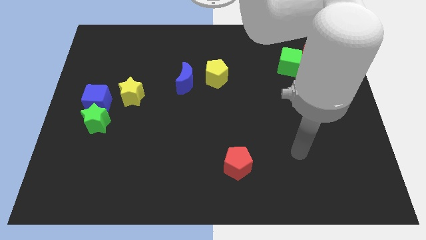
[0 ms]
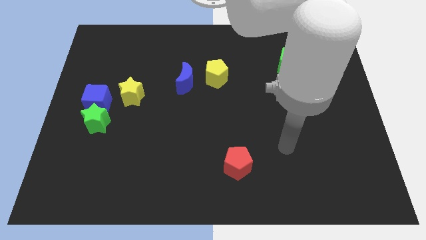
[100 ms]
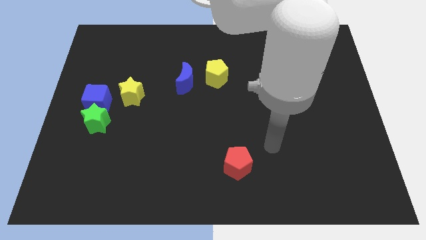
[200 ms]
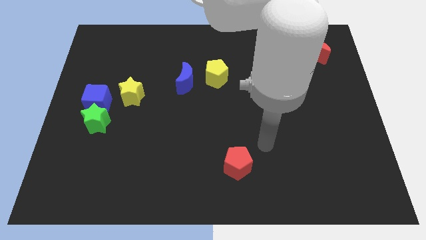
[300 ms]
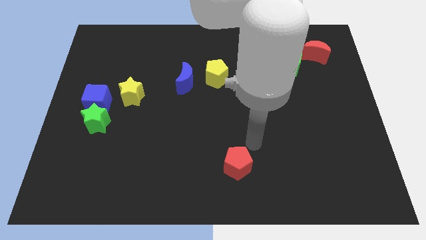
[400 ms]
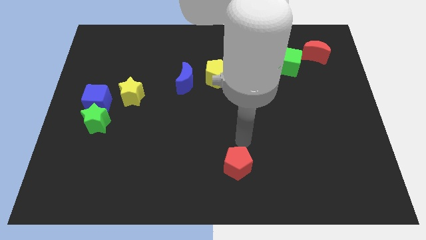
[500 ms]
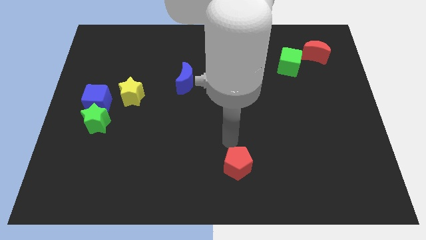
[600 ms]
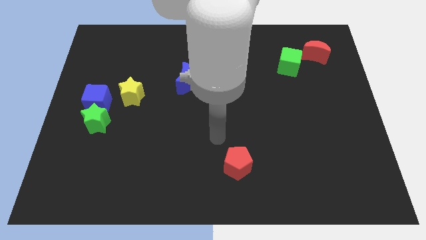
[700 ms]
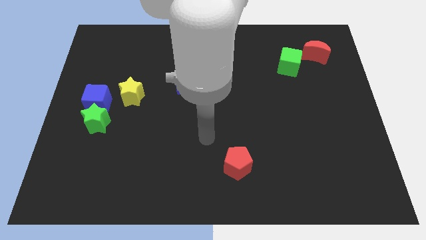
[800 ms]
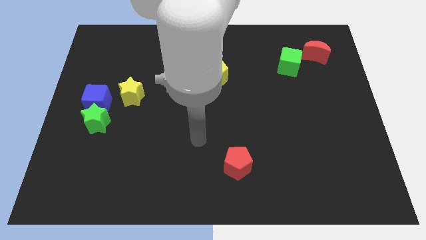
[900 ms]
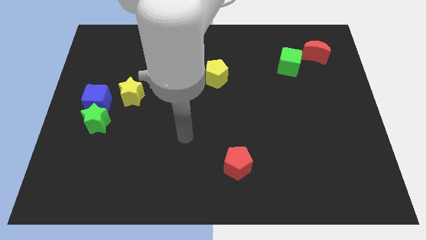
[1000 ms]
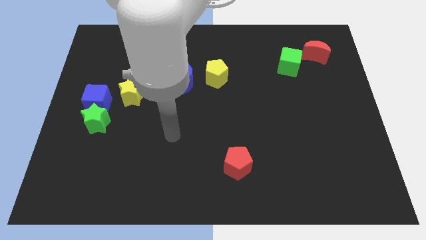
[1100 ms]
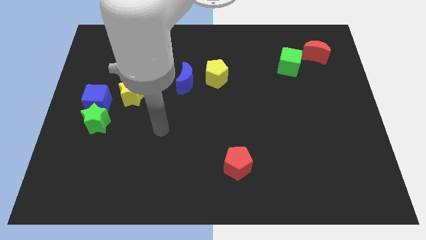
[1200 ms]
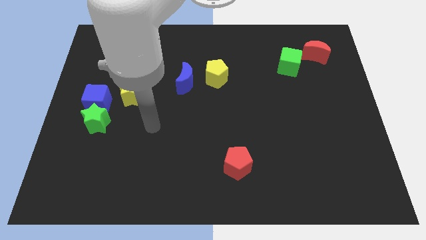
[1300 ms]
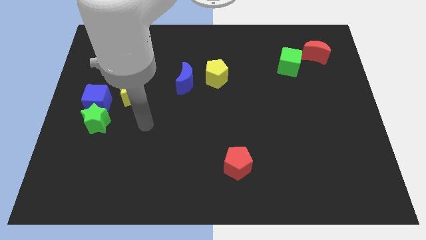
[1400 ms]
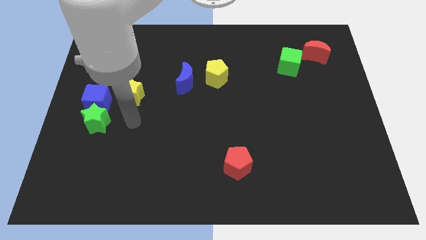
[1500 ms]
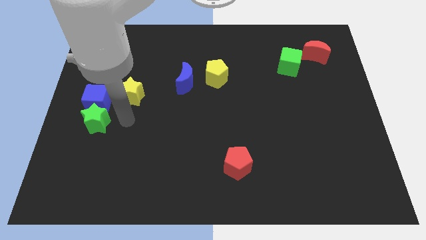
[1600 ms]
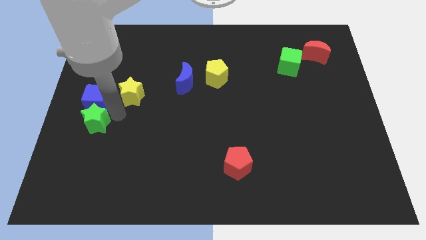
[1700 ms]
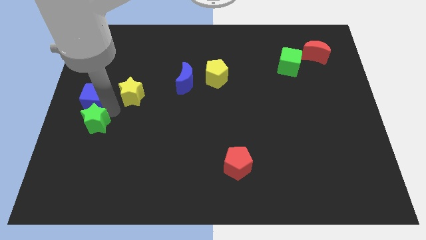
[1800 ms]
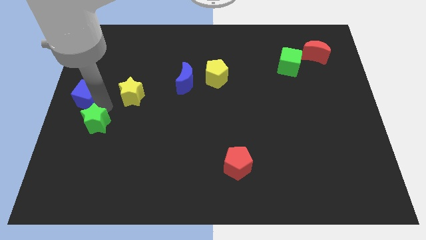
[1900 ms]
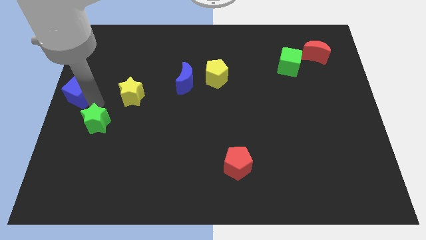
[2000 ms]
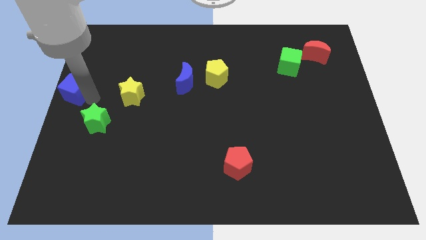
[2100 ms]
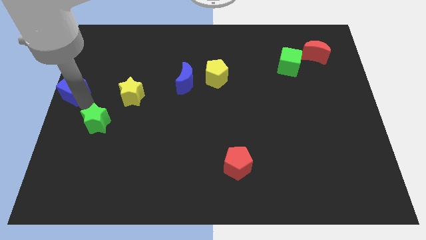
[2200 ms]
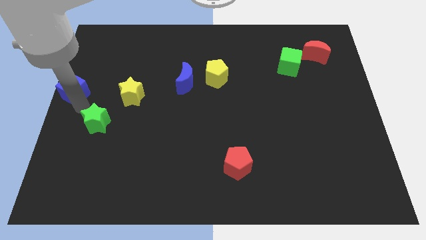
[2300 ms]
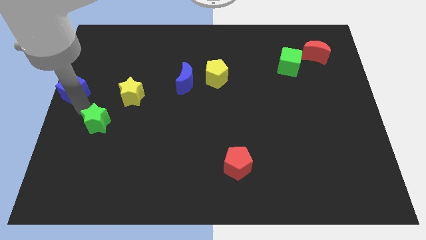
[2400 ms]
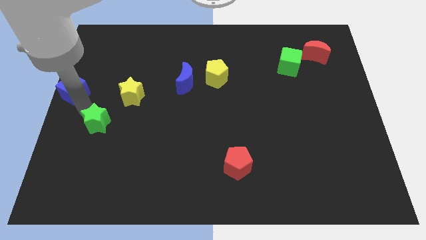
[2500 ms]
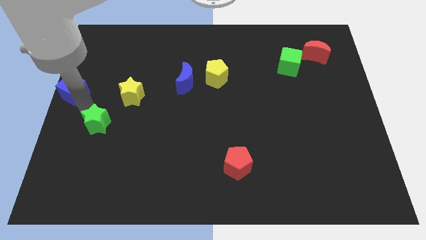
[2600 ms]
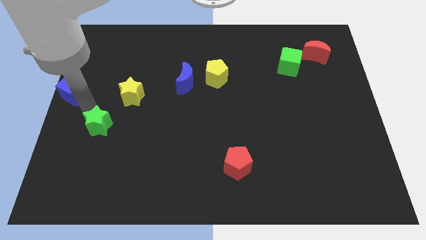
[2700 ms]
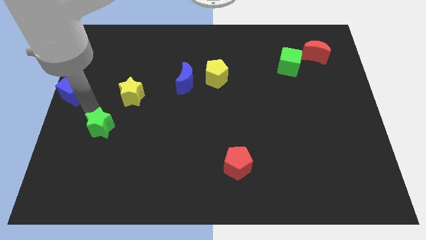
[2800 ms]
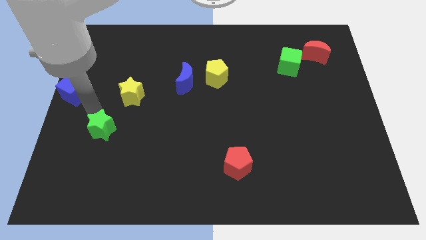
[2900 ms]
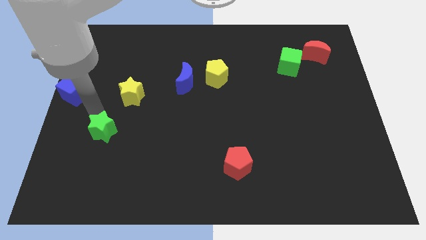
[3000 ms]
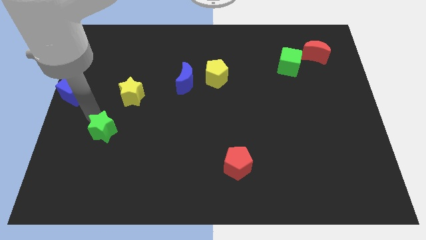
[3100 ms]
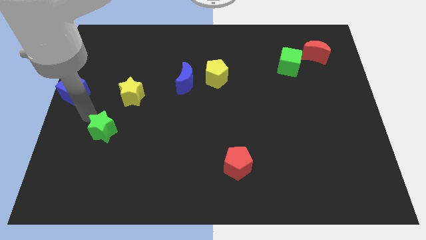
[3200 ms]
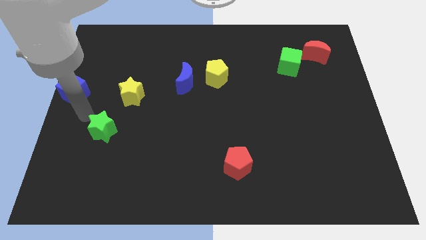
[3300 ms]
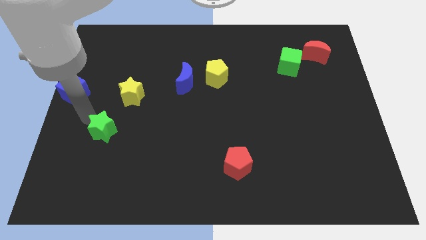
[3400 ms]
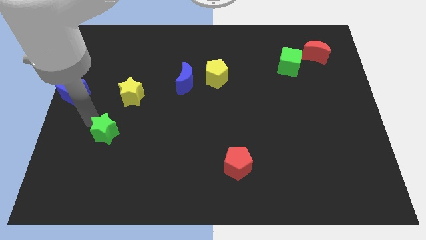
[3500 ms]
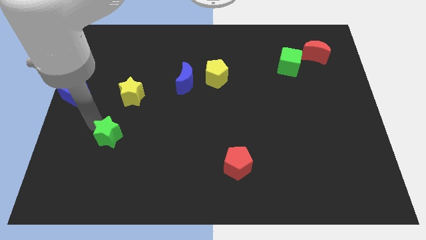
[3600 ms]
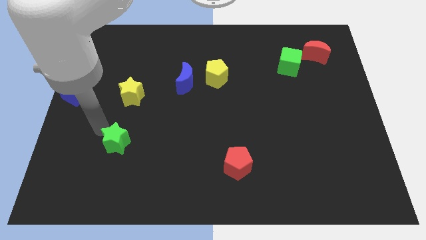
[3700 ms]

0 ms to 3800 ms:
push the green star down and then to the right a bit

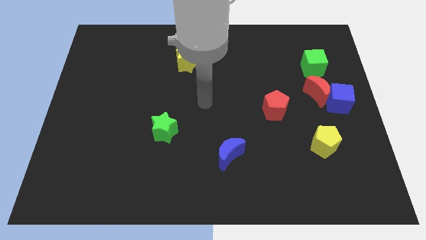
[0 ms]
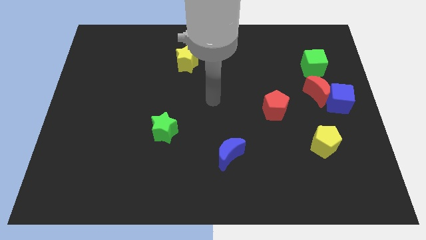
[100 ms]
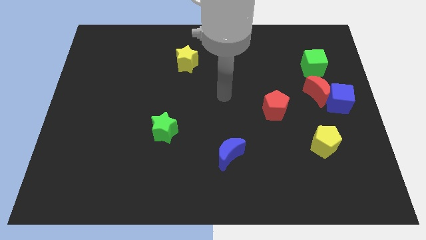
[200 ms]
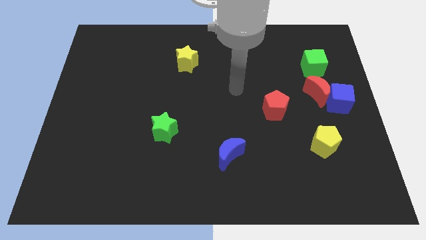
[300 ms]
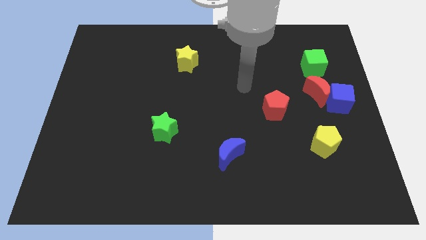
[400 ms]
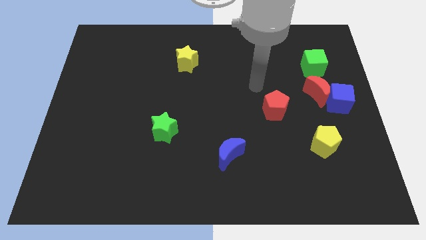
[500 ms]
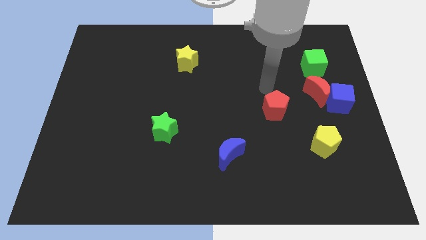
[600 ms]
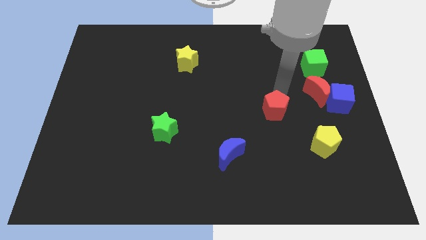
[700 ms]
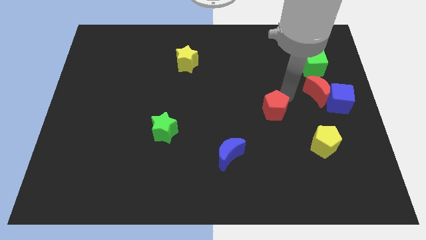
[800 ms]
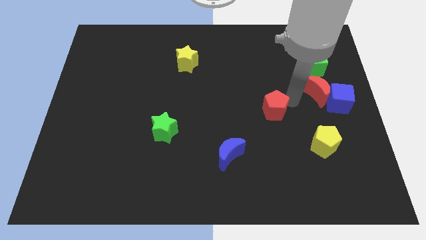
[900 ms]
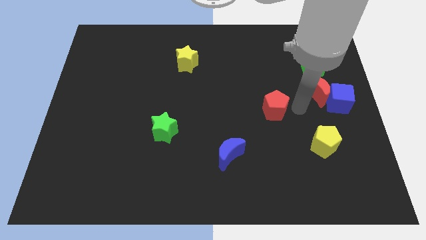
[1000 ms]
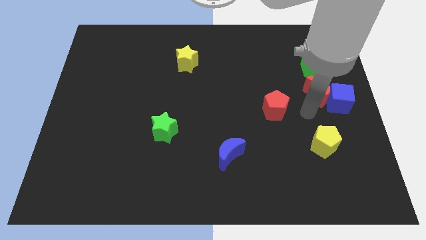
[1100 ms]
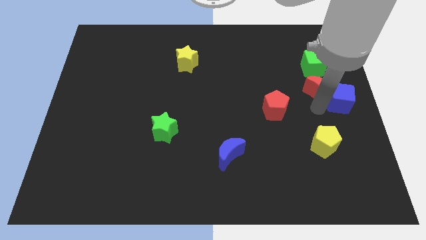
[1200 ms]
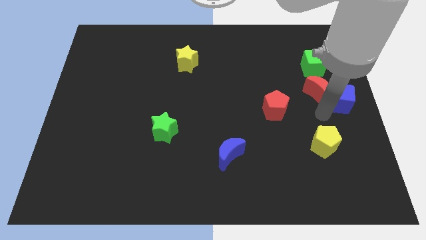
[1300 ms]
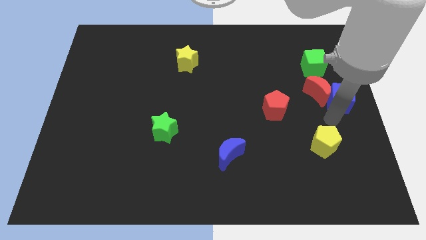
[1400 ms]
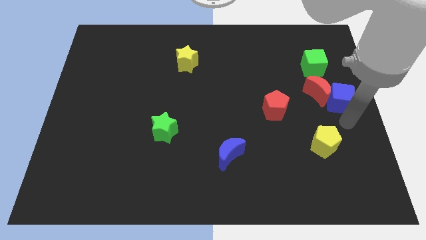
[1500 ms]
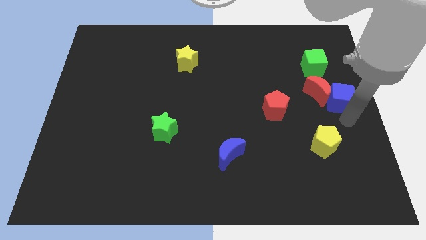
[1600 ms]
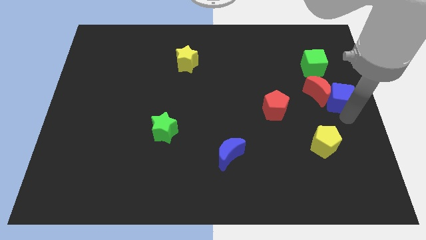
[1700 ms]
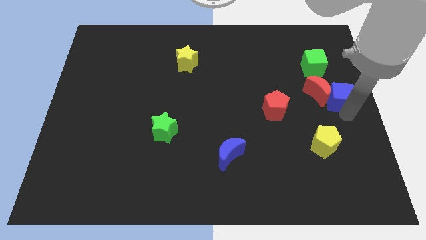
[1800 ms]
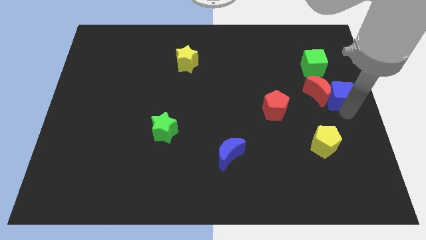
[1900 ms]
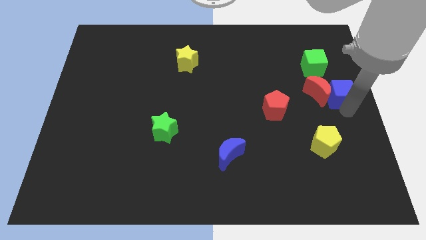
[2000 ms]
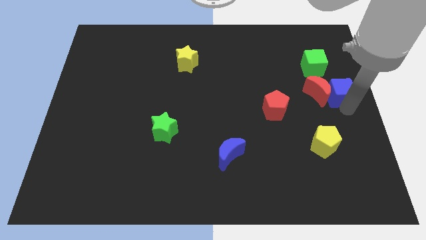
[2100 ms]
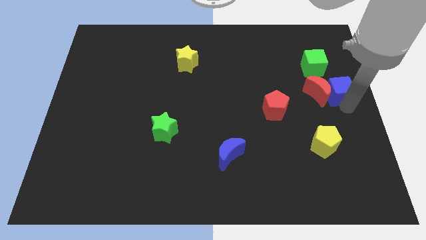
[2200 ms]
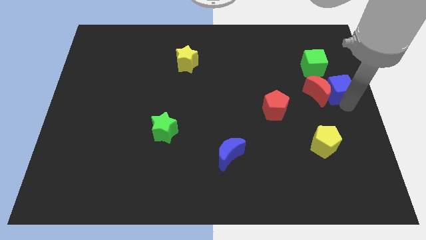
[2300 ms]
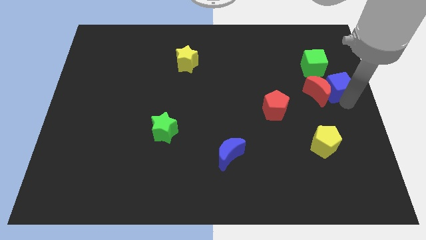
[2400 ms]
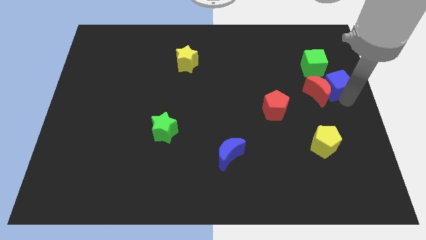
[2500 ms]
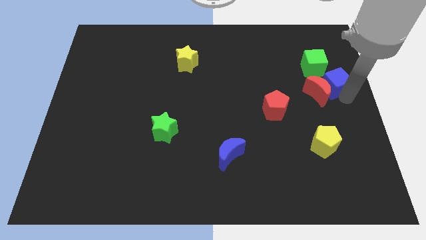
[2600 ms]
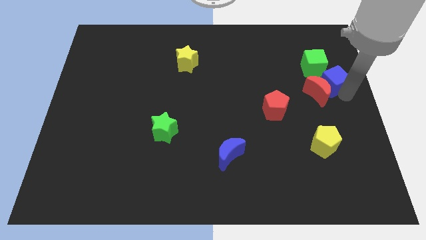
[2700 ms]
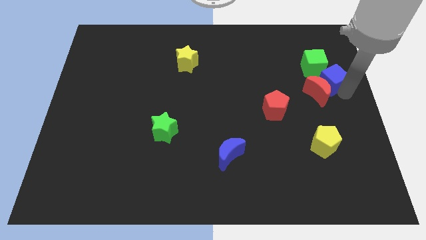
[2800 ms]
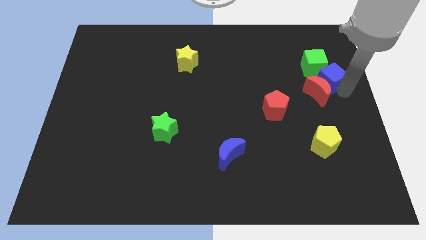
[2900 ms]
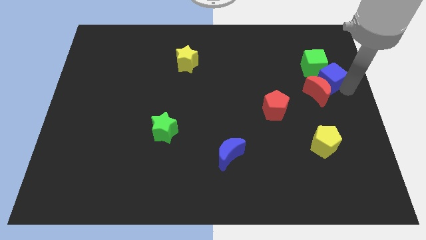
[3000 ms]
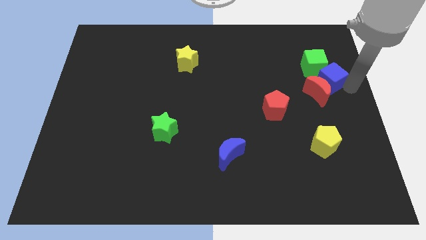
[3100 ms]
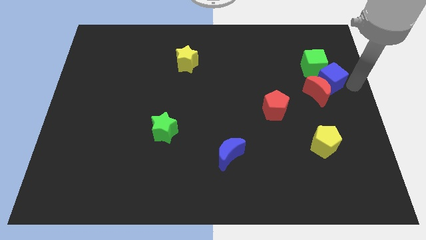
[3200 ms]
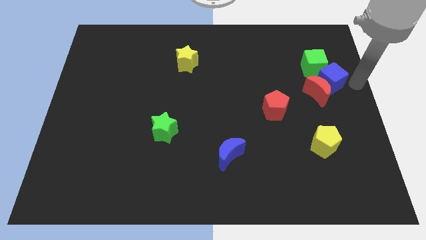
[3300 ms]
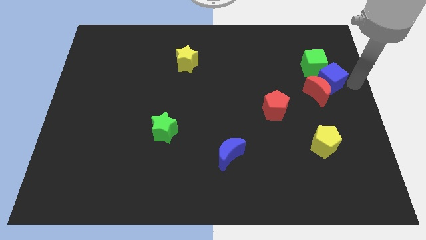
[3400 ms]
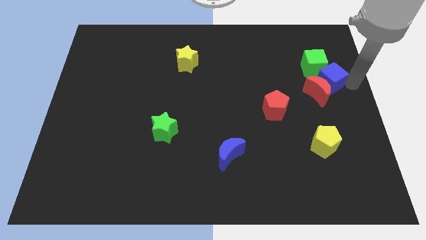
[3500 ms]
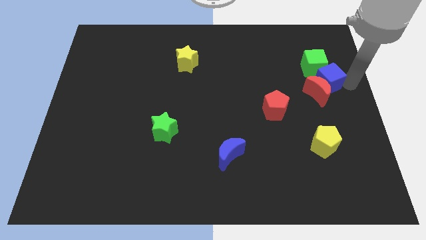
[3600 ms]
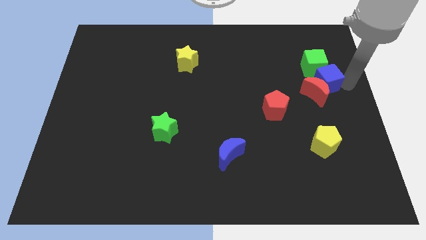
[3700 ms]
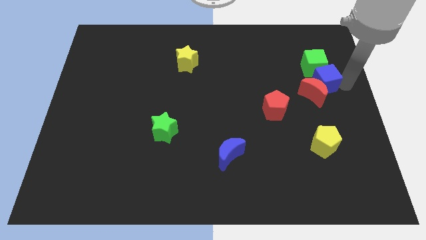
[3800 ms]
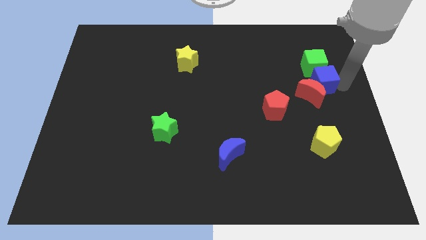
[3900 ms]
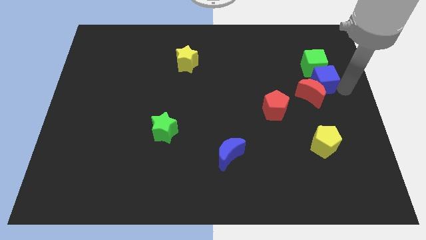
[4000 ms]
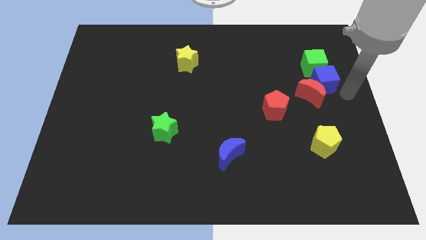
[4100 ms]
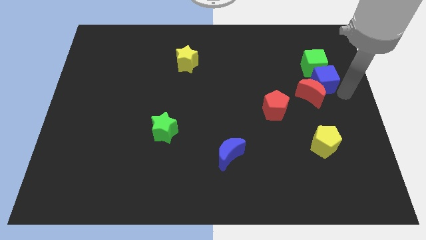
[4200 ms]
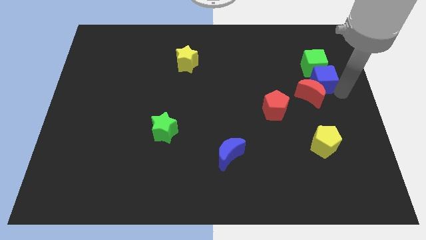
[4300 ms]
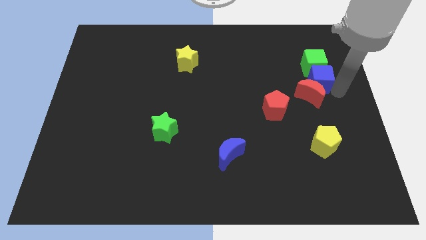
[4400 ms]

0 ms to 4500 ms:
push the blue cube a bit diagonally upwards and left
